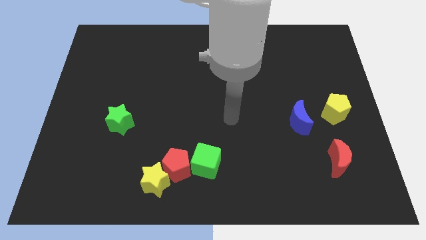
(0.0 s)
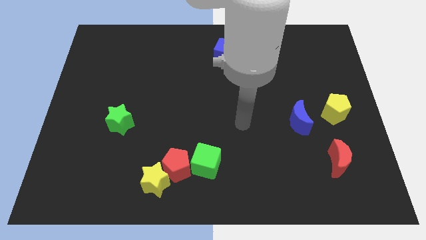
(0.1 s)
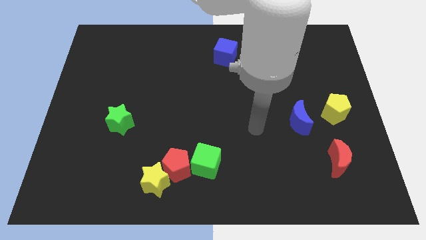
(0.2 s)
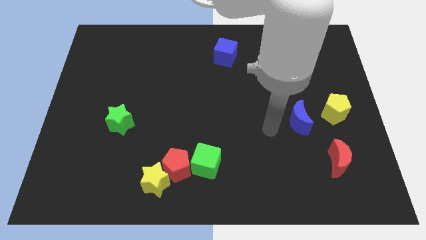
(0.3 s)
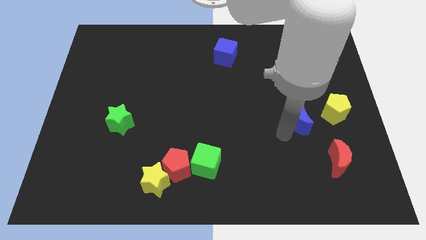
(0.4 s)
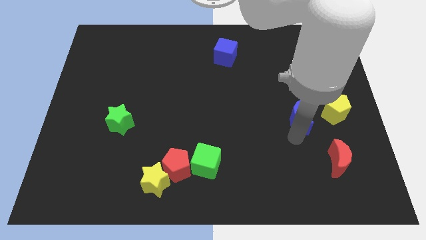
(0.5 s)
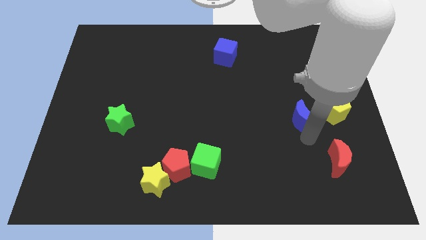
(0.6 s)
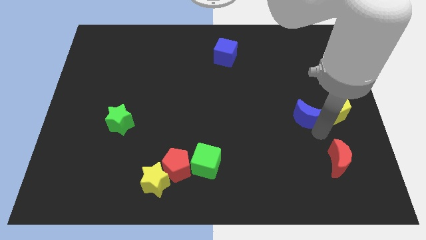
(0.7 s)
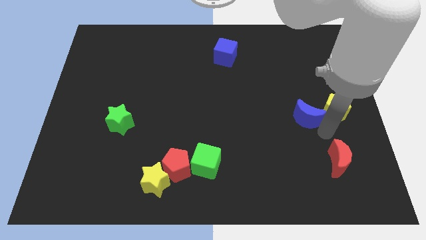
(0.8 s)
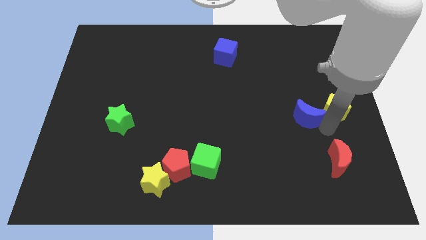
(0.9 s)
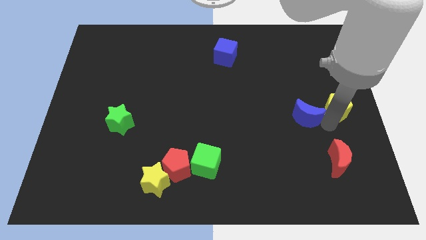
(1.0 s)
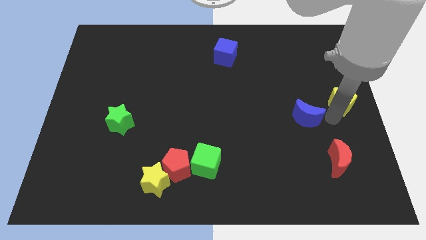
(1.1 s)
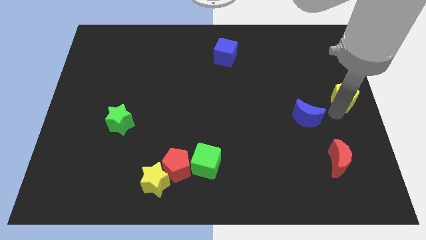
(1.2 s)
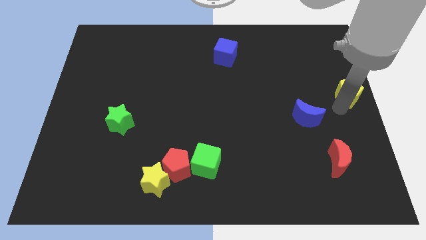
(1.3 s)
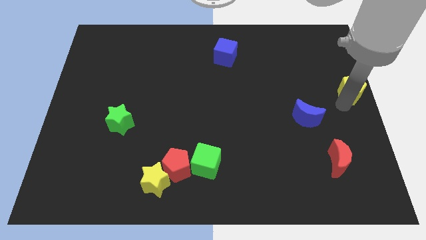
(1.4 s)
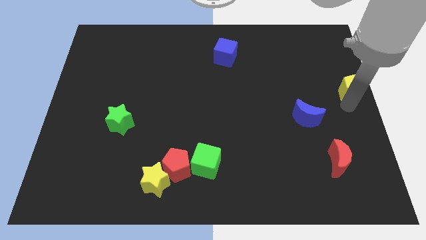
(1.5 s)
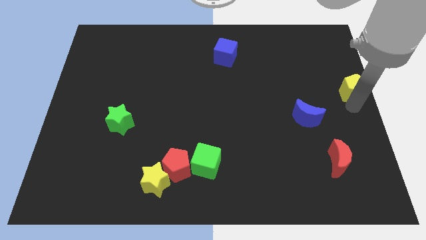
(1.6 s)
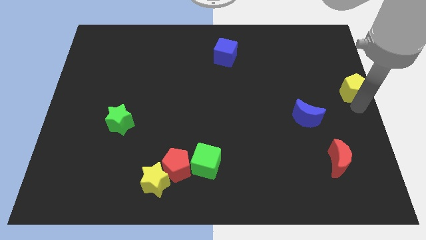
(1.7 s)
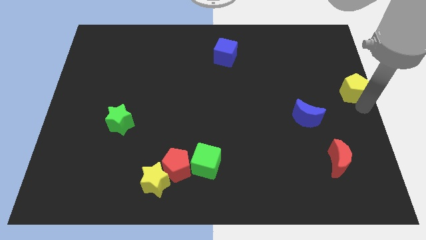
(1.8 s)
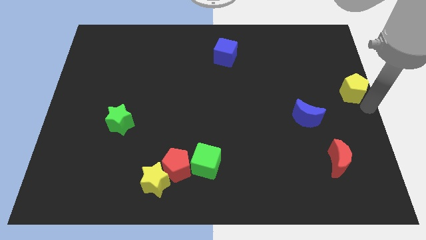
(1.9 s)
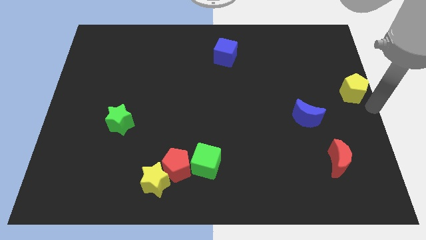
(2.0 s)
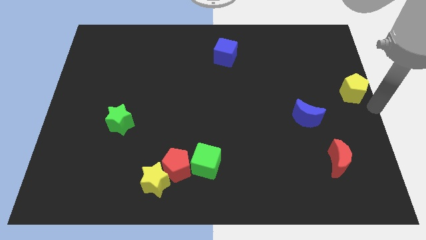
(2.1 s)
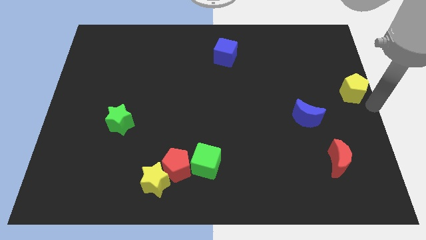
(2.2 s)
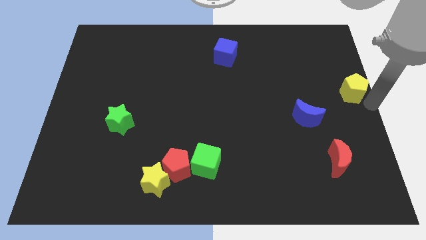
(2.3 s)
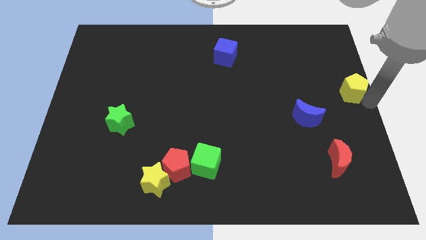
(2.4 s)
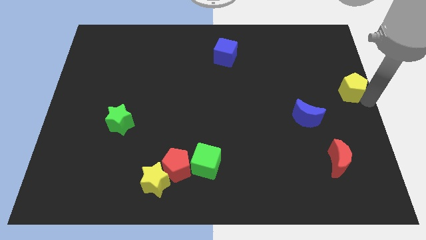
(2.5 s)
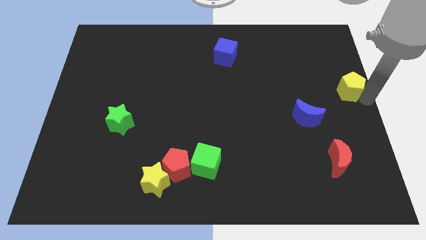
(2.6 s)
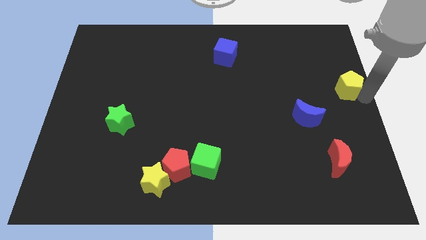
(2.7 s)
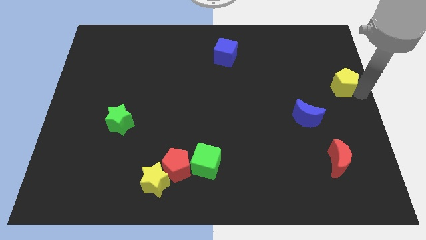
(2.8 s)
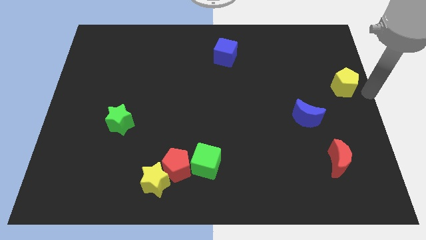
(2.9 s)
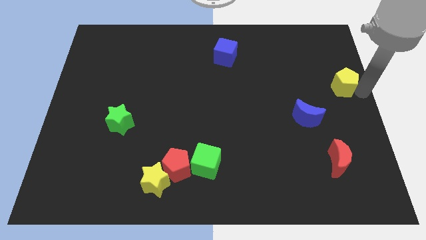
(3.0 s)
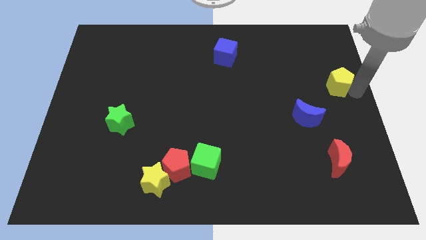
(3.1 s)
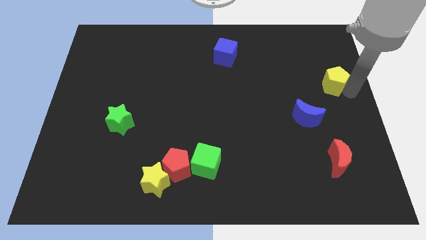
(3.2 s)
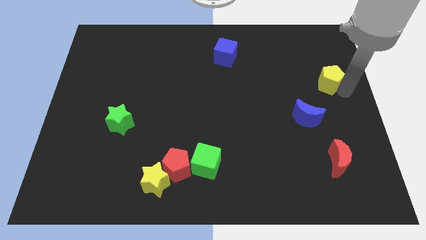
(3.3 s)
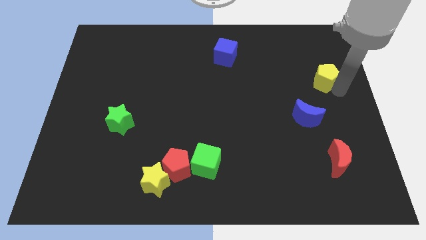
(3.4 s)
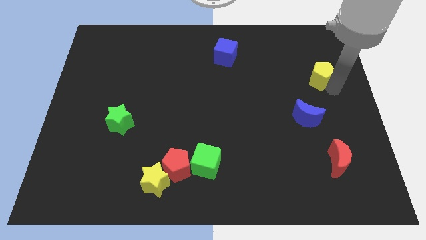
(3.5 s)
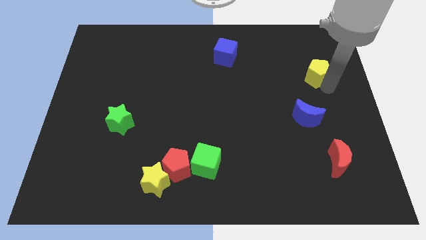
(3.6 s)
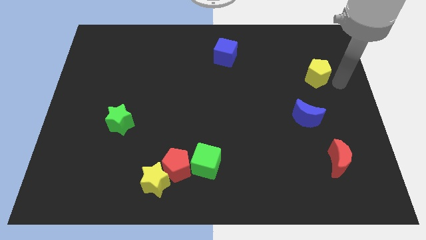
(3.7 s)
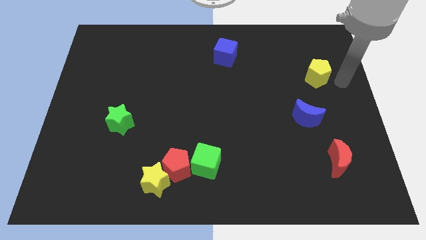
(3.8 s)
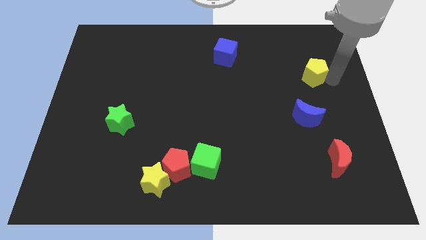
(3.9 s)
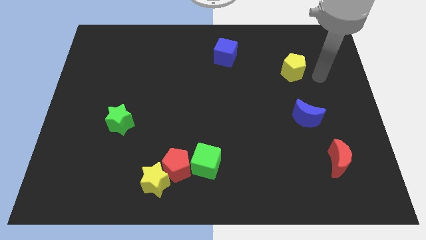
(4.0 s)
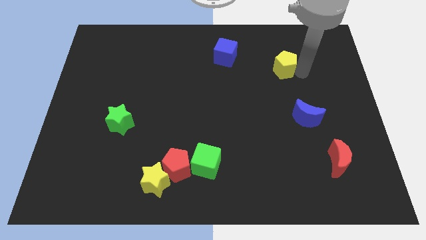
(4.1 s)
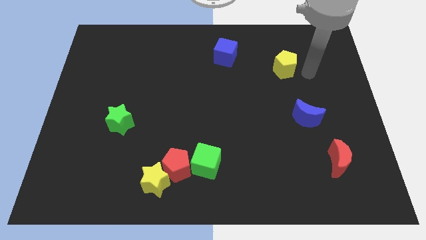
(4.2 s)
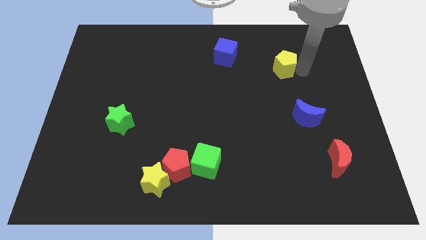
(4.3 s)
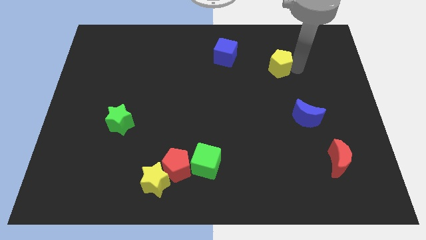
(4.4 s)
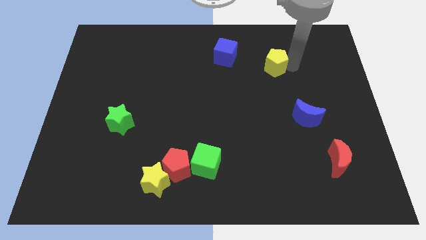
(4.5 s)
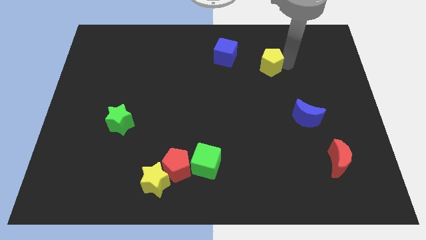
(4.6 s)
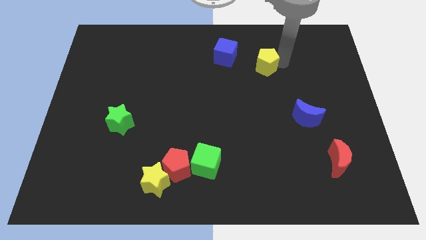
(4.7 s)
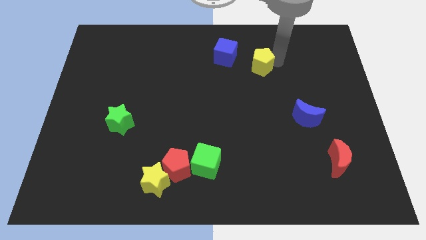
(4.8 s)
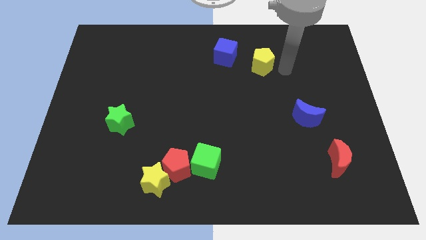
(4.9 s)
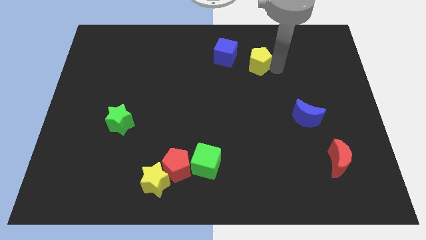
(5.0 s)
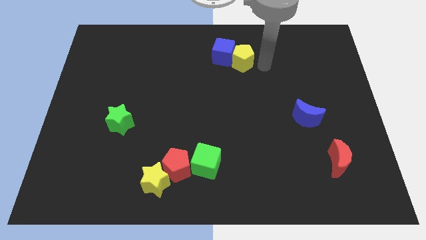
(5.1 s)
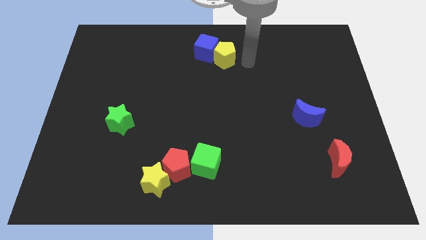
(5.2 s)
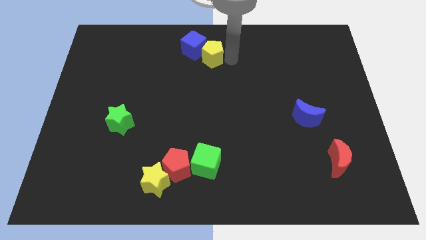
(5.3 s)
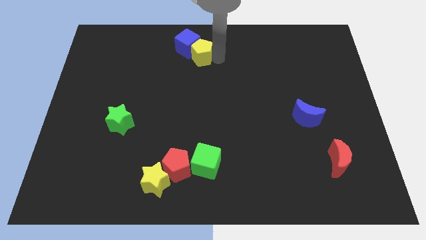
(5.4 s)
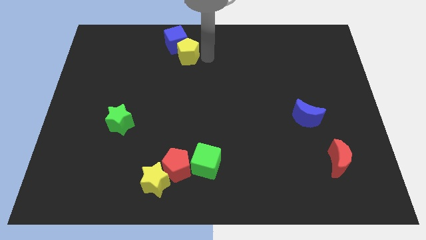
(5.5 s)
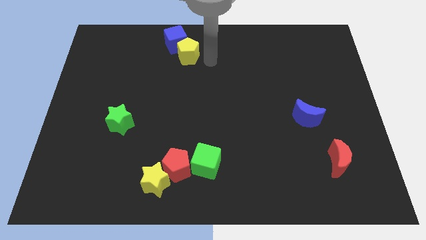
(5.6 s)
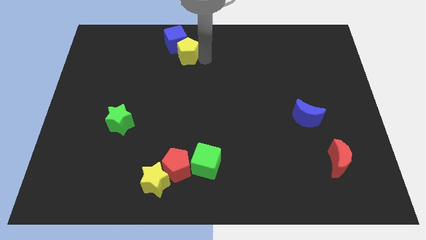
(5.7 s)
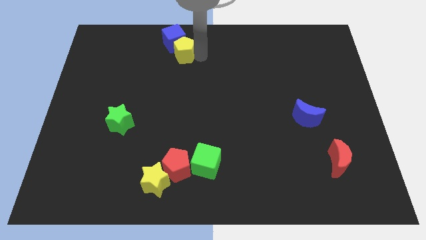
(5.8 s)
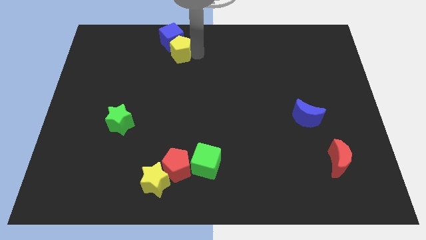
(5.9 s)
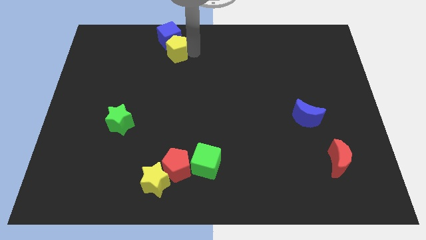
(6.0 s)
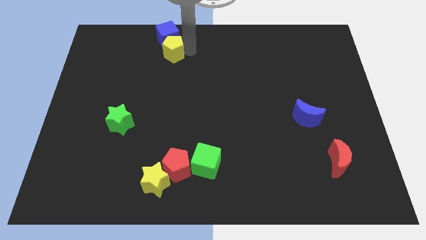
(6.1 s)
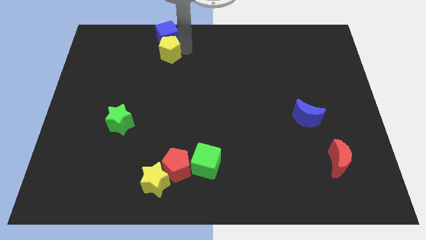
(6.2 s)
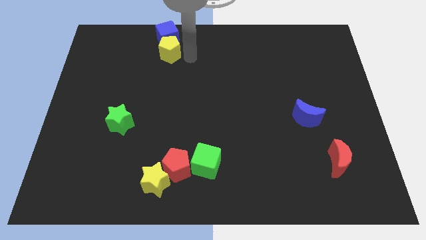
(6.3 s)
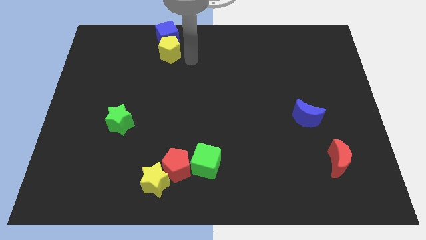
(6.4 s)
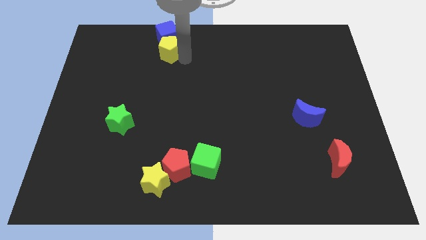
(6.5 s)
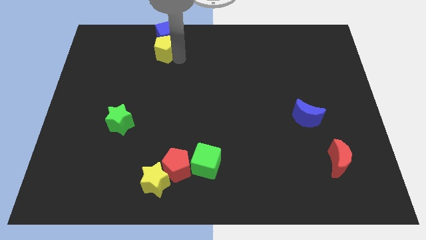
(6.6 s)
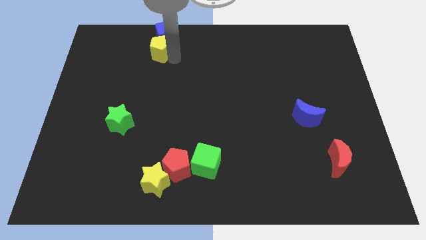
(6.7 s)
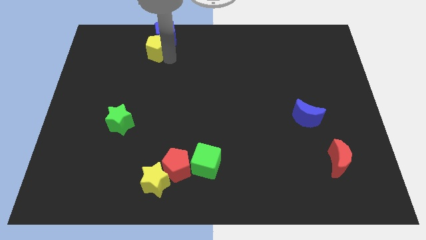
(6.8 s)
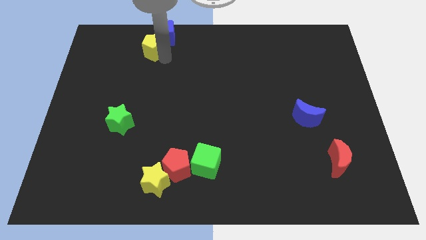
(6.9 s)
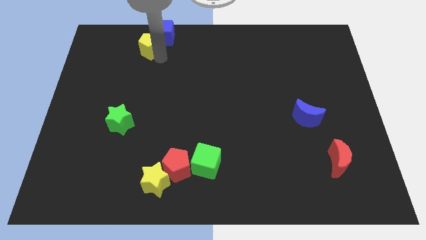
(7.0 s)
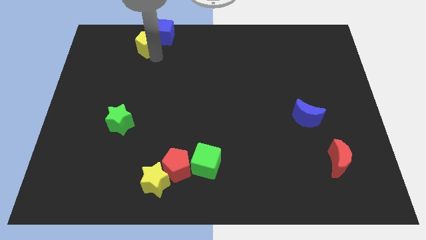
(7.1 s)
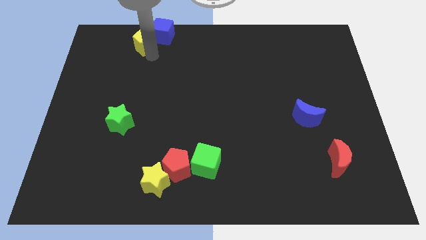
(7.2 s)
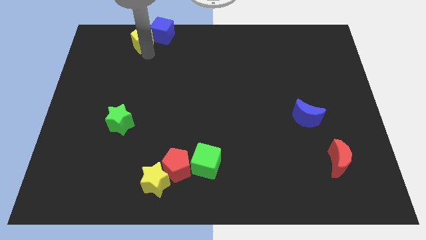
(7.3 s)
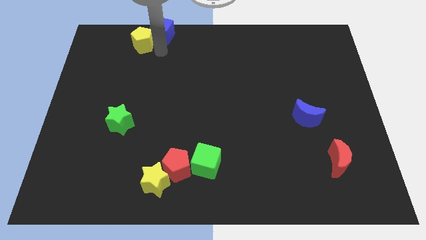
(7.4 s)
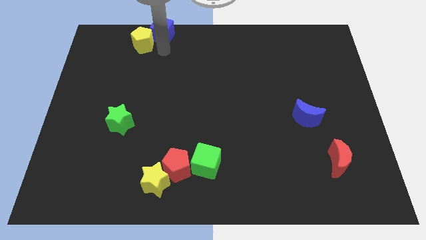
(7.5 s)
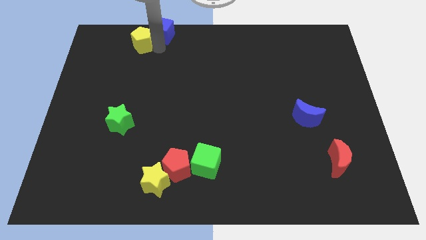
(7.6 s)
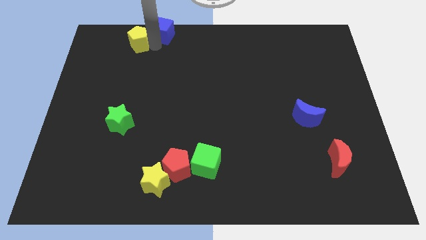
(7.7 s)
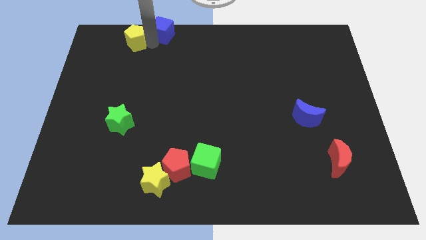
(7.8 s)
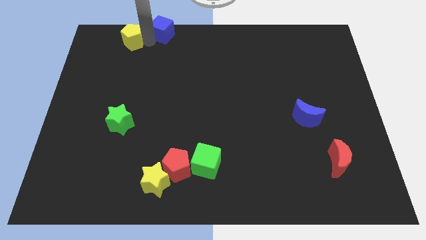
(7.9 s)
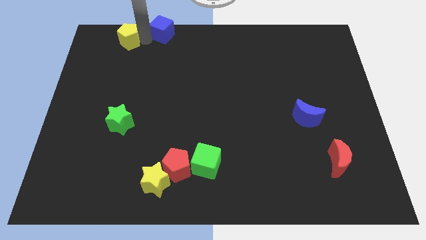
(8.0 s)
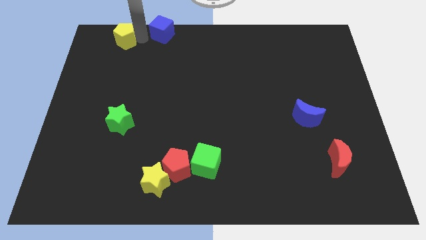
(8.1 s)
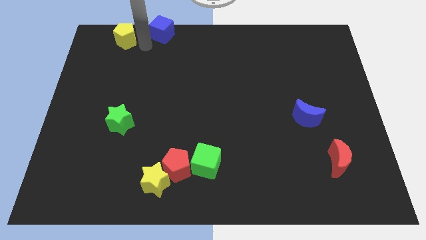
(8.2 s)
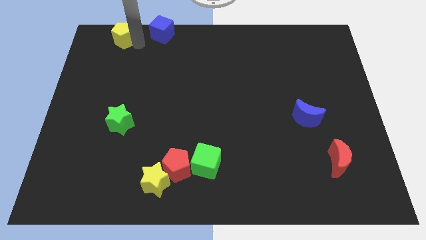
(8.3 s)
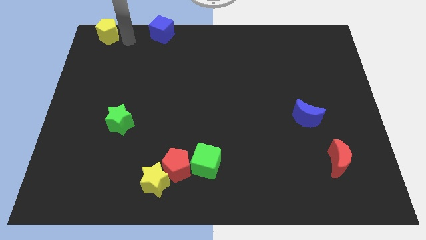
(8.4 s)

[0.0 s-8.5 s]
put the yellow pentagon to the upper left corner
